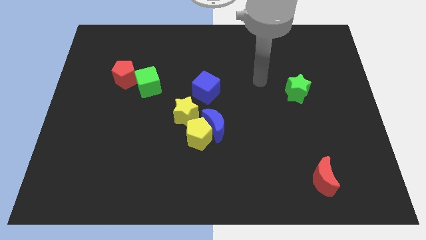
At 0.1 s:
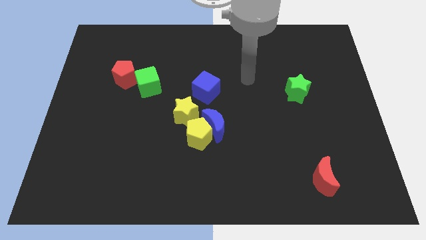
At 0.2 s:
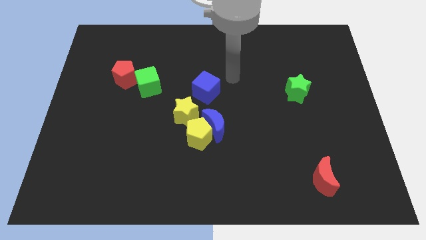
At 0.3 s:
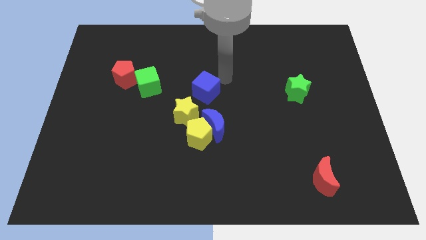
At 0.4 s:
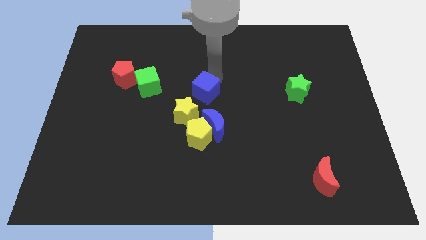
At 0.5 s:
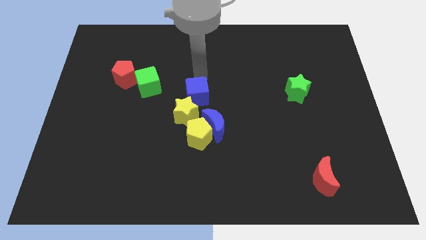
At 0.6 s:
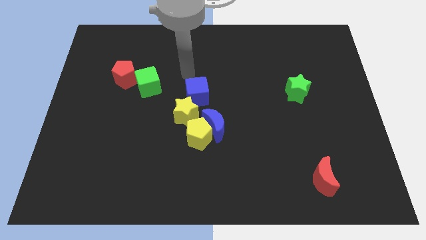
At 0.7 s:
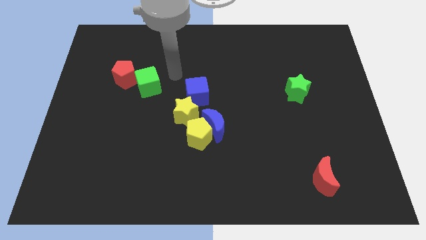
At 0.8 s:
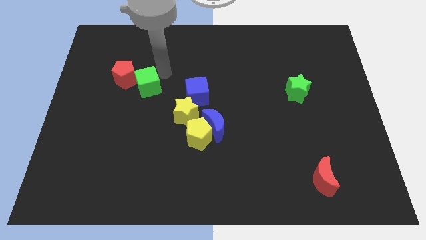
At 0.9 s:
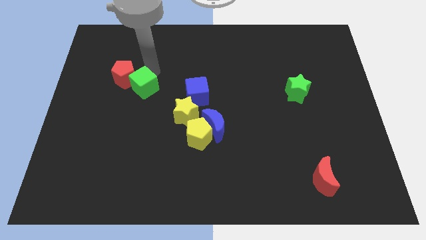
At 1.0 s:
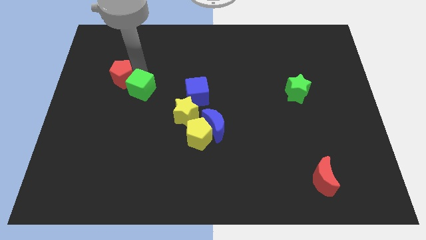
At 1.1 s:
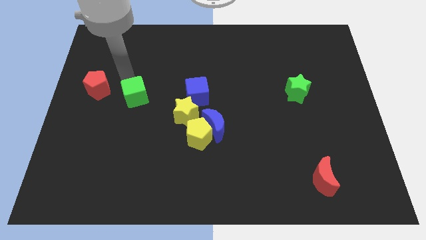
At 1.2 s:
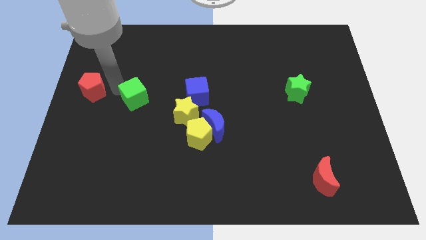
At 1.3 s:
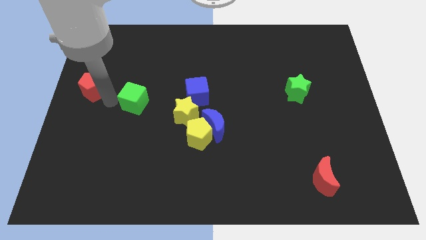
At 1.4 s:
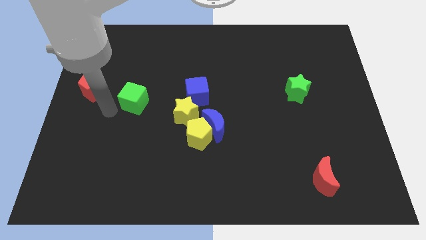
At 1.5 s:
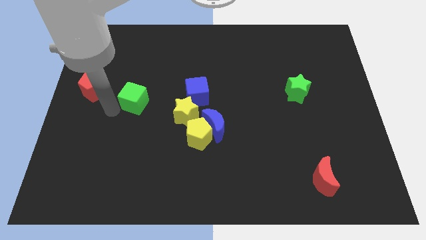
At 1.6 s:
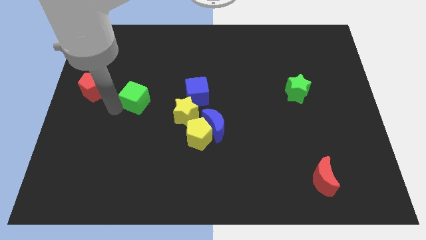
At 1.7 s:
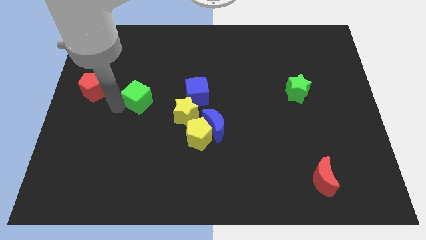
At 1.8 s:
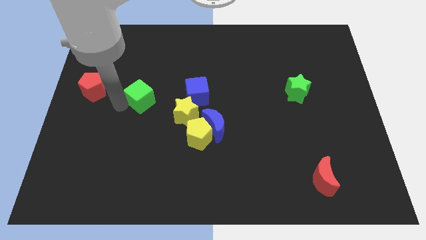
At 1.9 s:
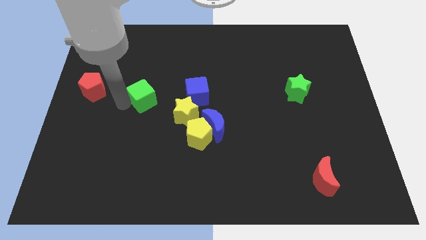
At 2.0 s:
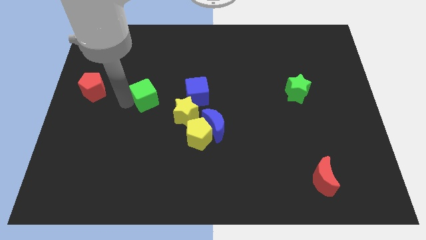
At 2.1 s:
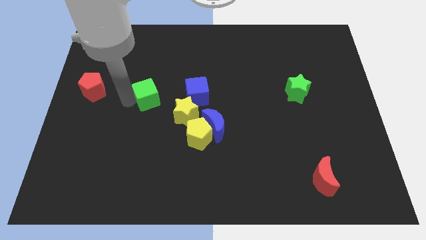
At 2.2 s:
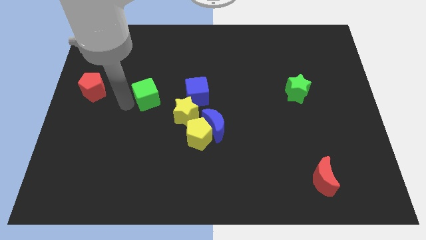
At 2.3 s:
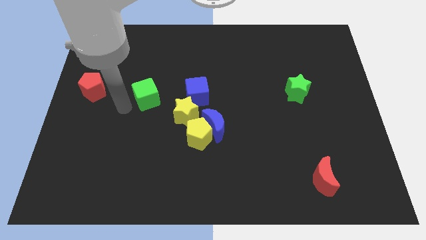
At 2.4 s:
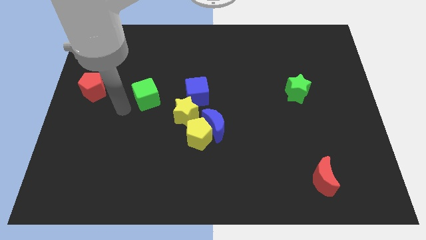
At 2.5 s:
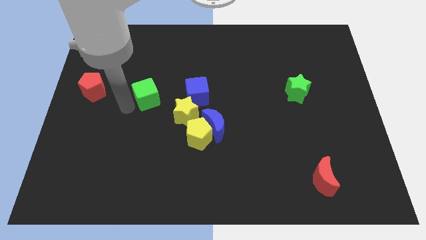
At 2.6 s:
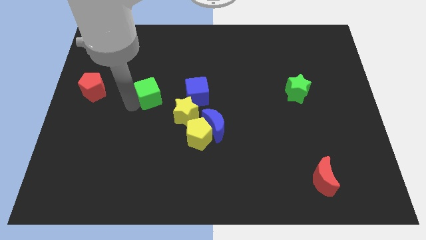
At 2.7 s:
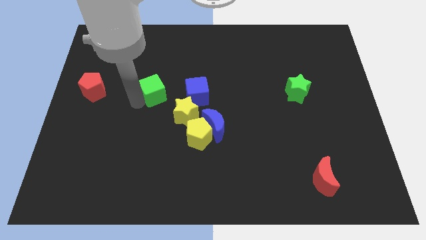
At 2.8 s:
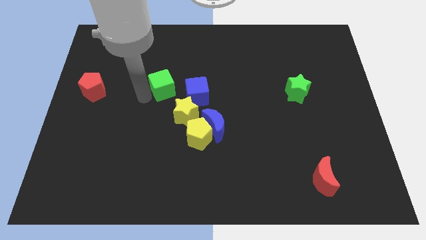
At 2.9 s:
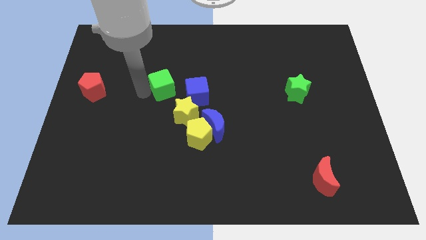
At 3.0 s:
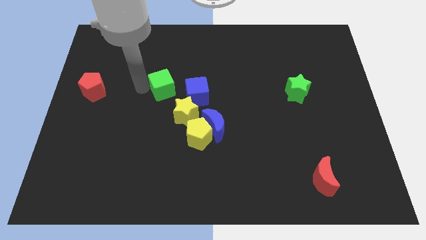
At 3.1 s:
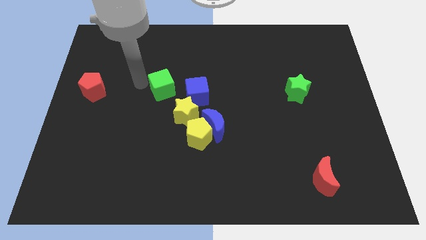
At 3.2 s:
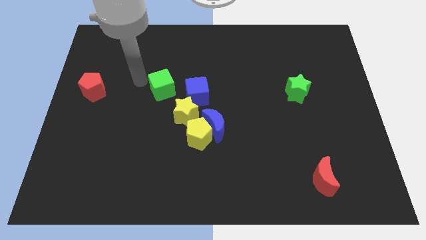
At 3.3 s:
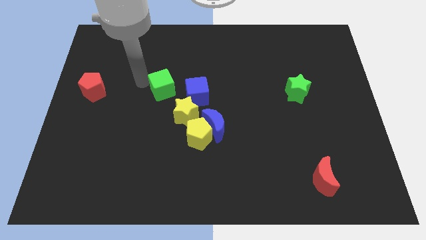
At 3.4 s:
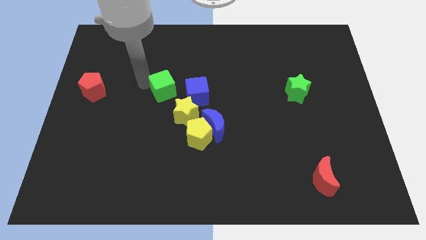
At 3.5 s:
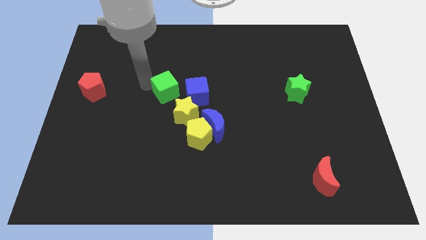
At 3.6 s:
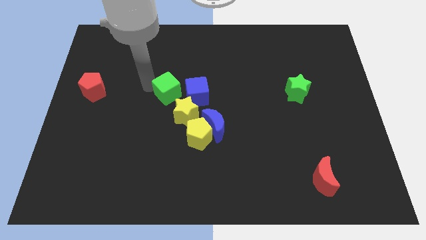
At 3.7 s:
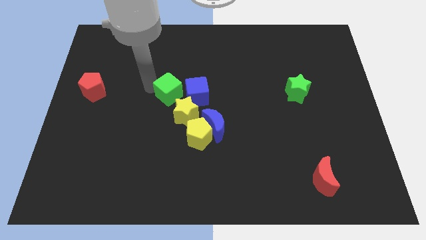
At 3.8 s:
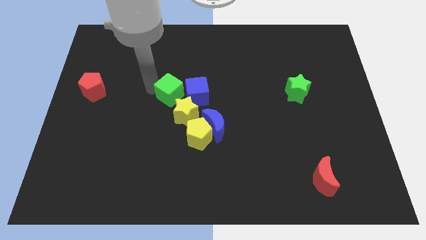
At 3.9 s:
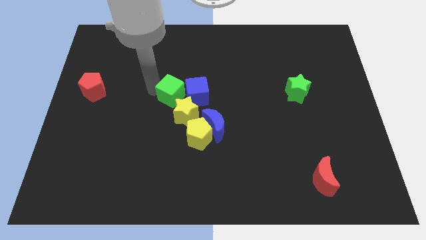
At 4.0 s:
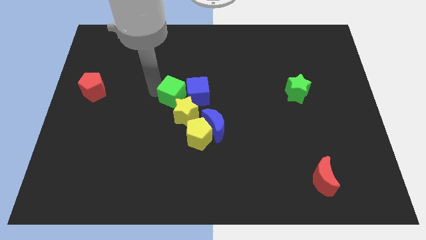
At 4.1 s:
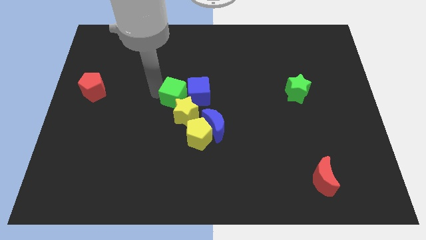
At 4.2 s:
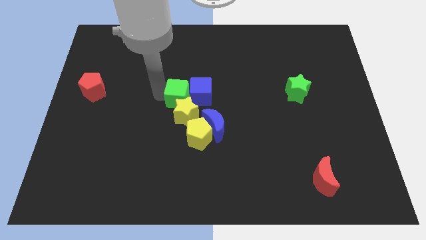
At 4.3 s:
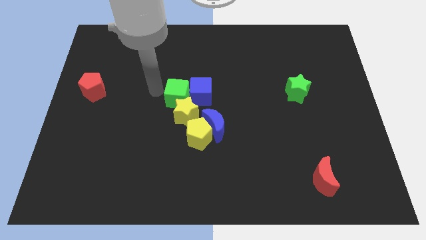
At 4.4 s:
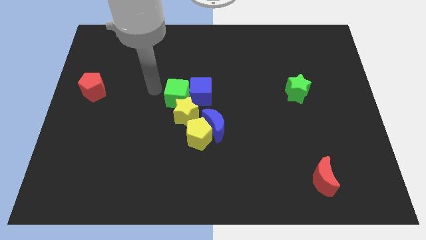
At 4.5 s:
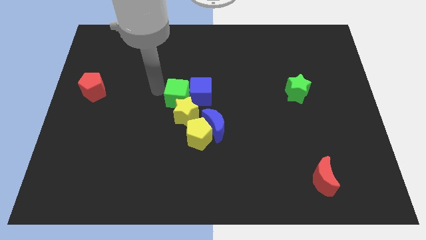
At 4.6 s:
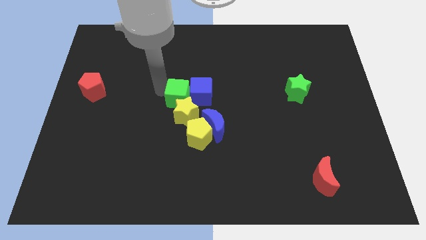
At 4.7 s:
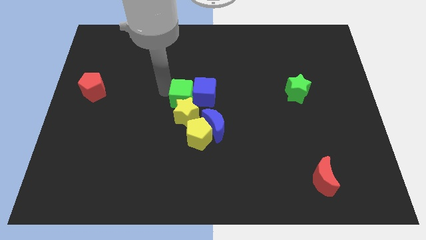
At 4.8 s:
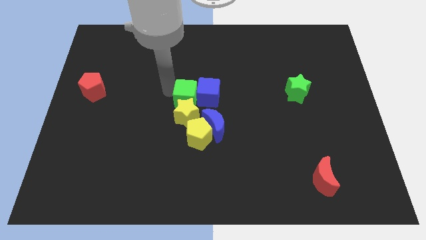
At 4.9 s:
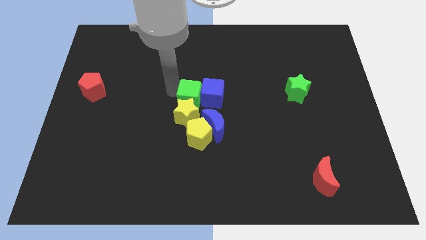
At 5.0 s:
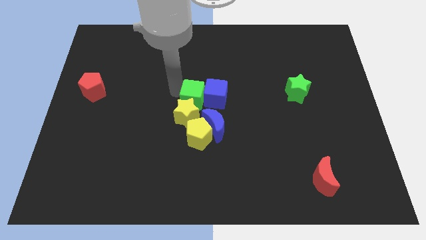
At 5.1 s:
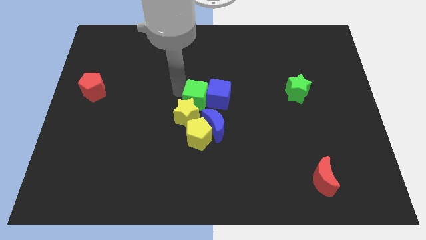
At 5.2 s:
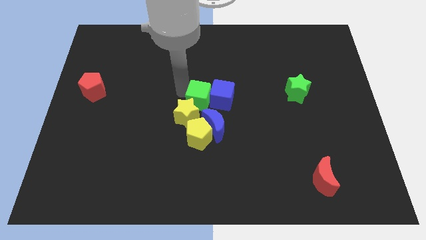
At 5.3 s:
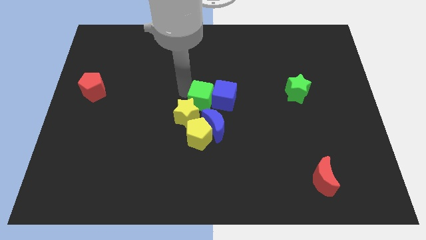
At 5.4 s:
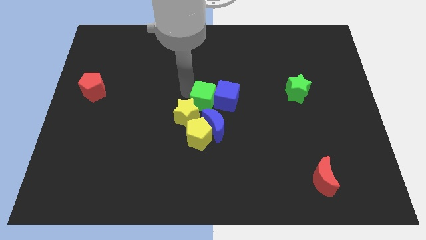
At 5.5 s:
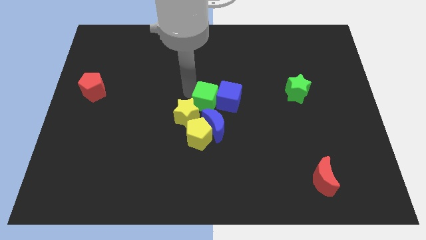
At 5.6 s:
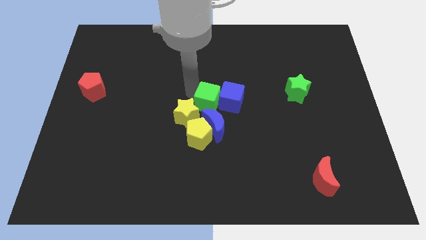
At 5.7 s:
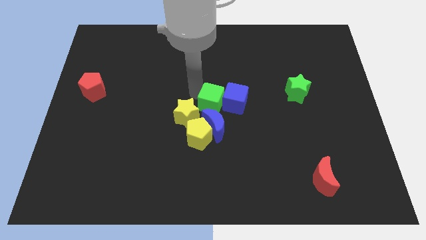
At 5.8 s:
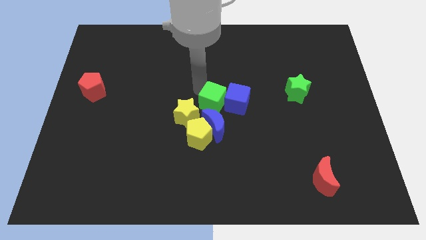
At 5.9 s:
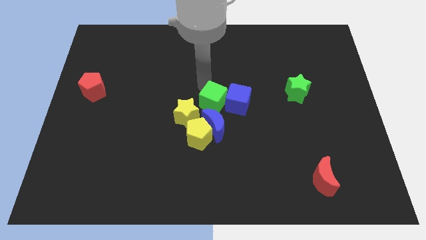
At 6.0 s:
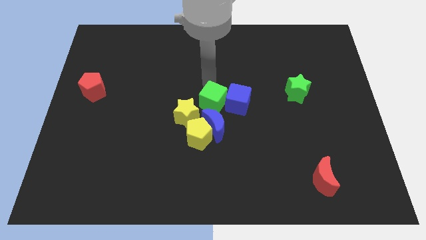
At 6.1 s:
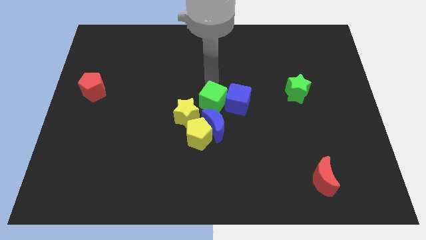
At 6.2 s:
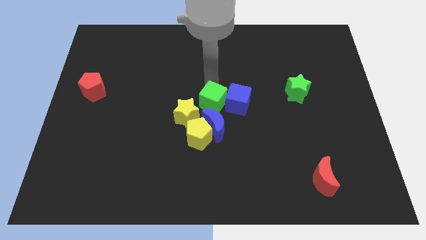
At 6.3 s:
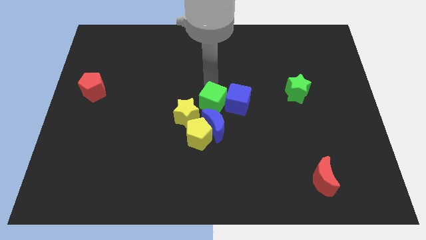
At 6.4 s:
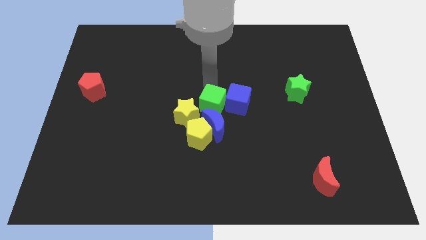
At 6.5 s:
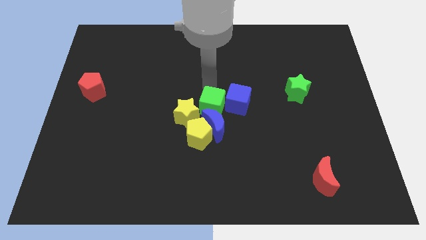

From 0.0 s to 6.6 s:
put the green cube close to the blue moon
